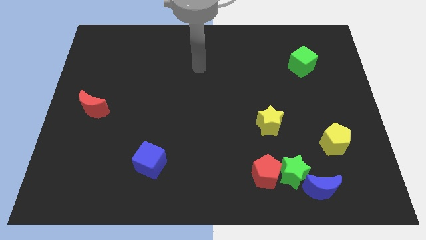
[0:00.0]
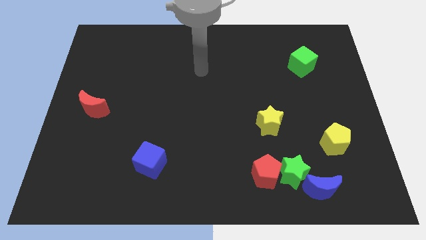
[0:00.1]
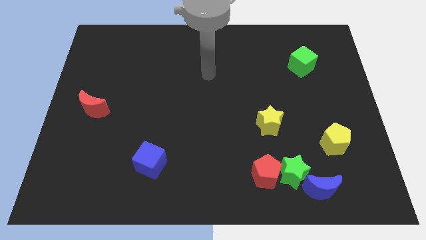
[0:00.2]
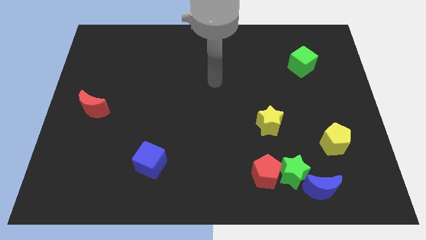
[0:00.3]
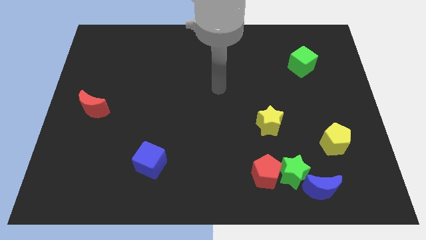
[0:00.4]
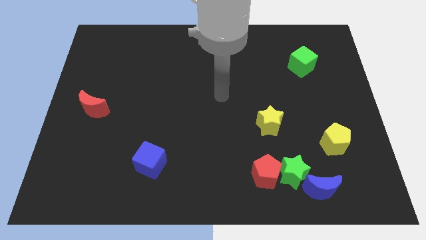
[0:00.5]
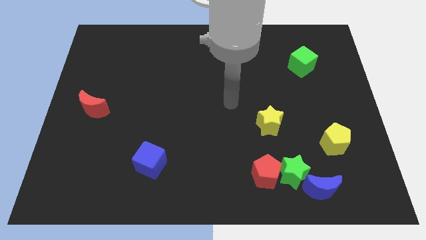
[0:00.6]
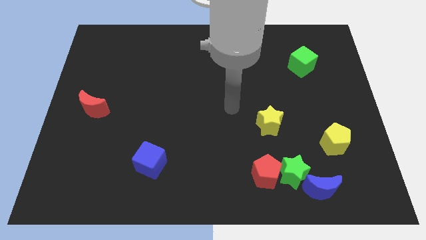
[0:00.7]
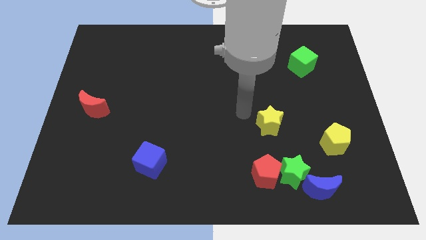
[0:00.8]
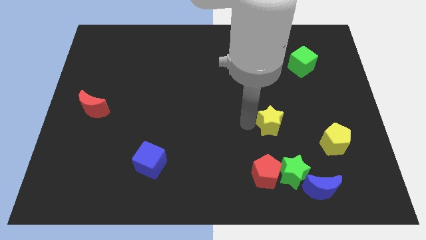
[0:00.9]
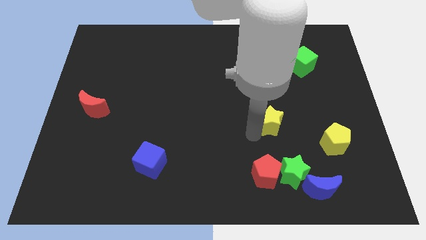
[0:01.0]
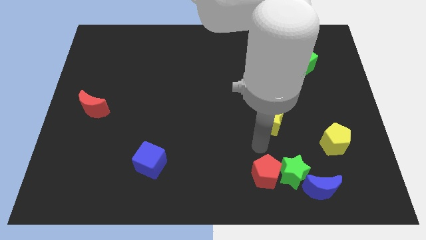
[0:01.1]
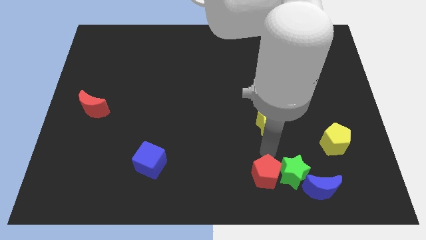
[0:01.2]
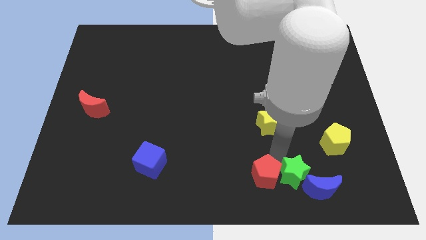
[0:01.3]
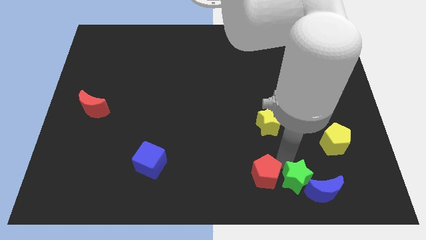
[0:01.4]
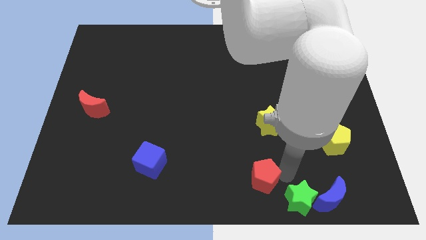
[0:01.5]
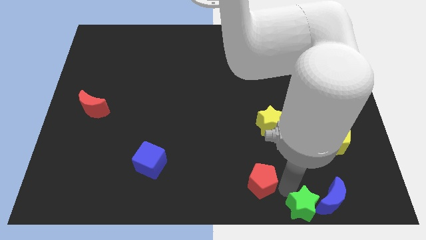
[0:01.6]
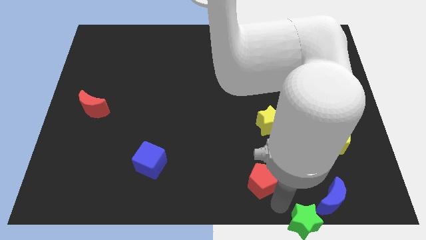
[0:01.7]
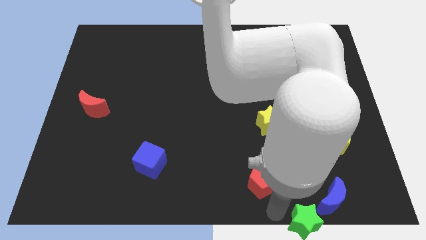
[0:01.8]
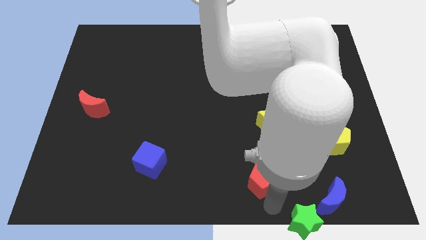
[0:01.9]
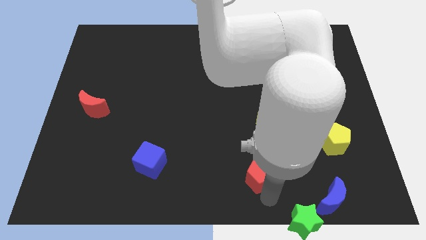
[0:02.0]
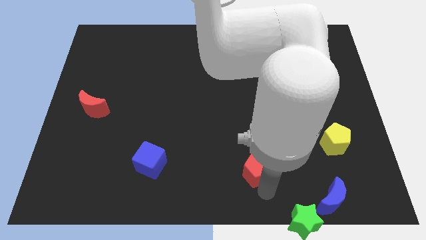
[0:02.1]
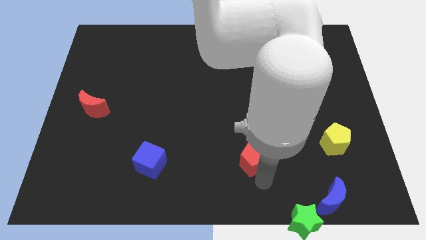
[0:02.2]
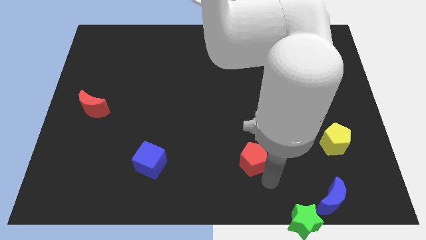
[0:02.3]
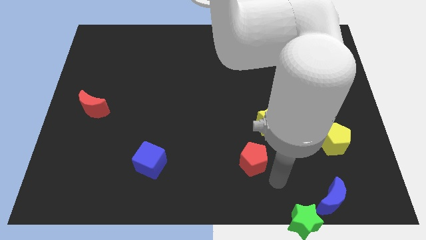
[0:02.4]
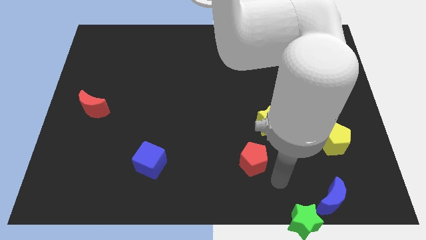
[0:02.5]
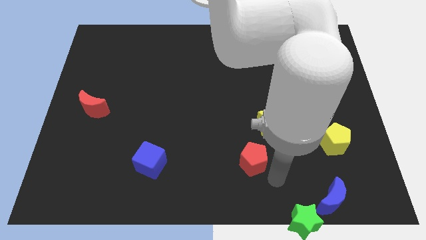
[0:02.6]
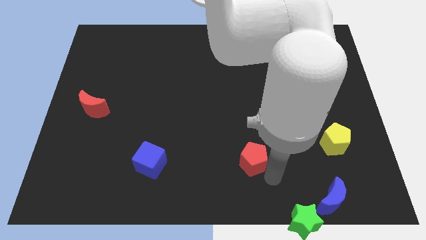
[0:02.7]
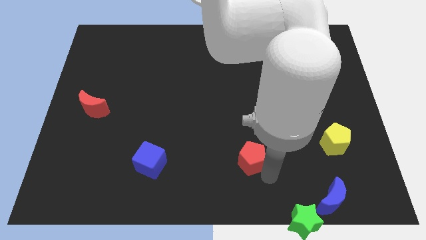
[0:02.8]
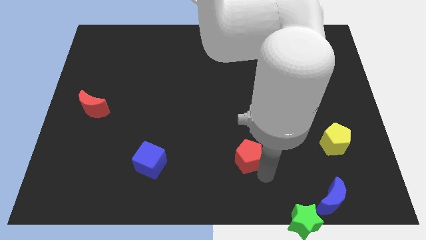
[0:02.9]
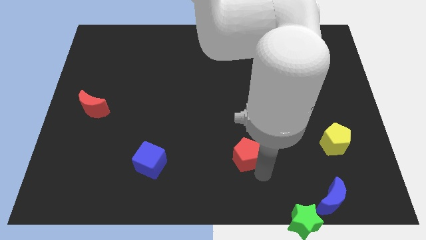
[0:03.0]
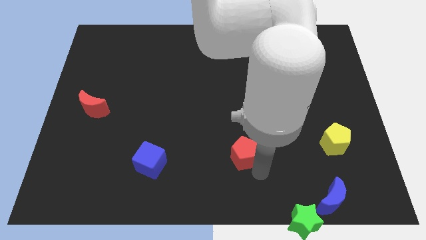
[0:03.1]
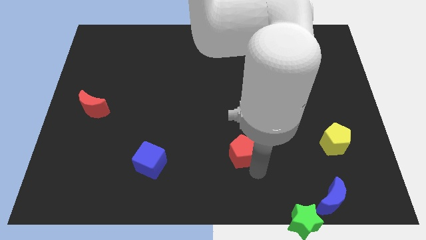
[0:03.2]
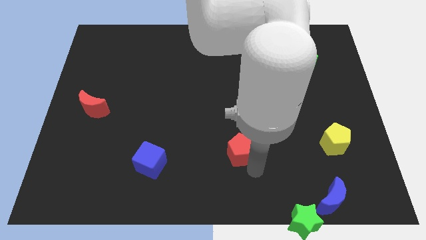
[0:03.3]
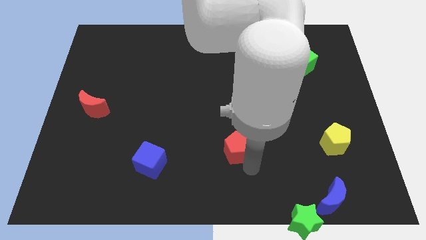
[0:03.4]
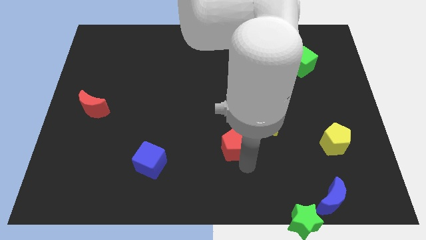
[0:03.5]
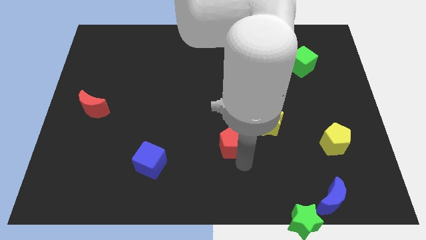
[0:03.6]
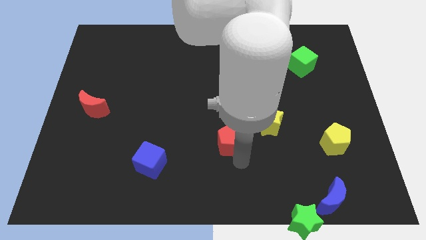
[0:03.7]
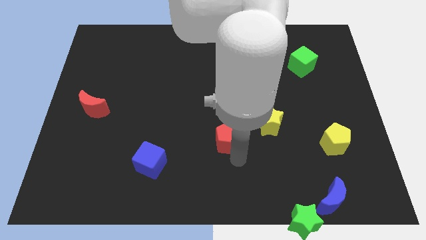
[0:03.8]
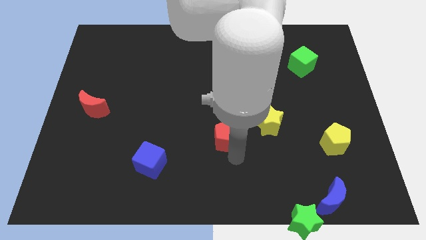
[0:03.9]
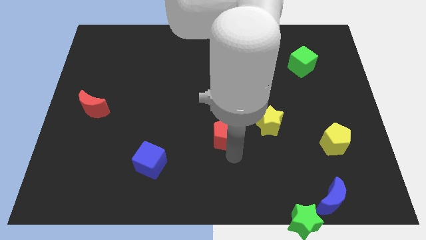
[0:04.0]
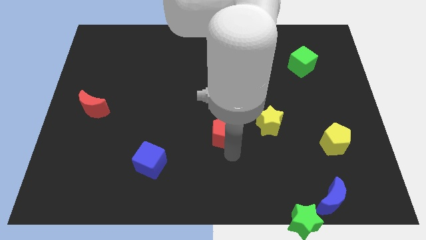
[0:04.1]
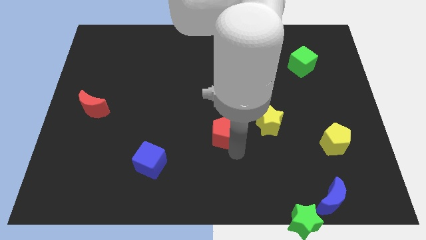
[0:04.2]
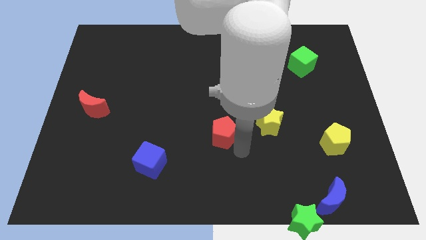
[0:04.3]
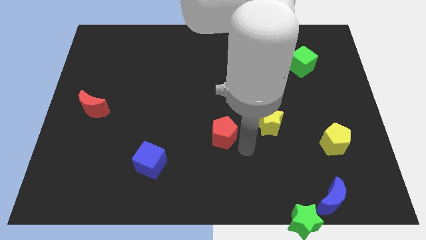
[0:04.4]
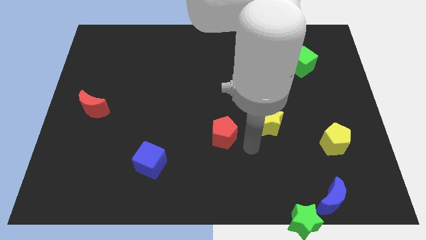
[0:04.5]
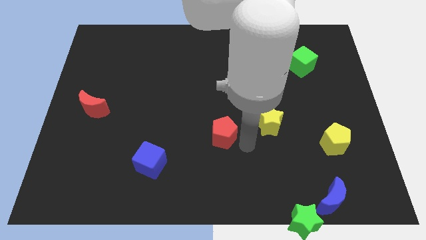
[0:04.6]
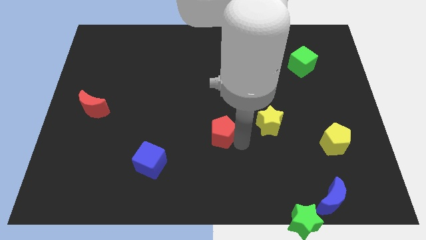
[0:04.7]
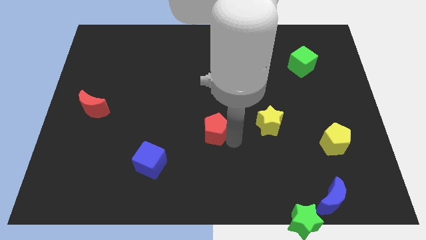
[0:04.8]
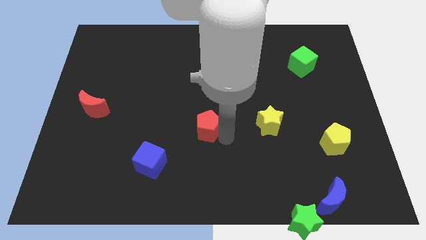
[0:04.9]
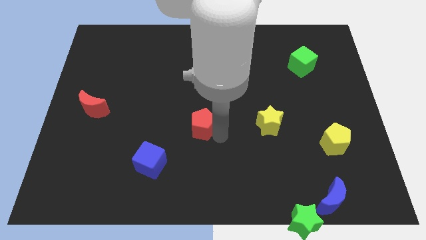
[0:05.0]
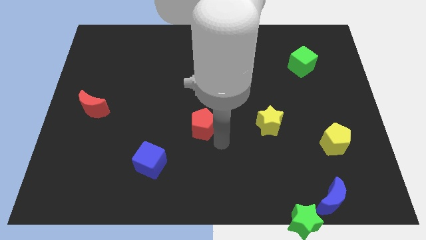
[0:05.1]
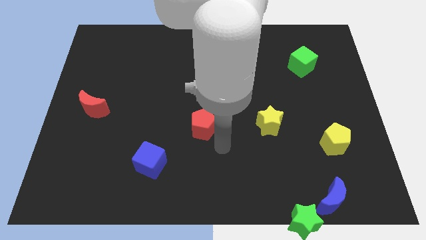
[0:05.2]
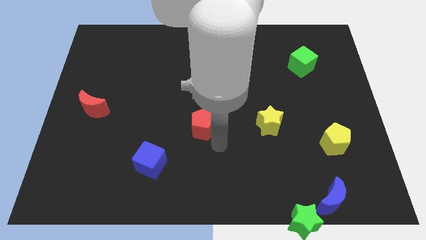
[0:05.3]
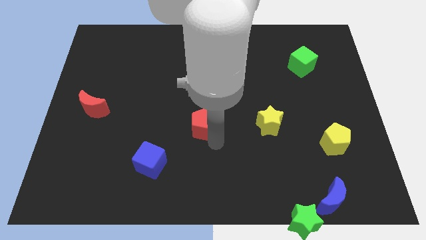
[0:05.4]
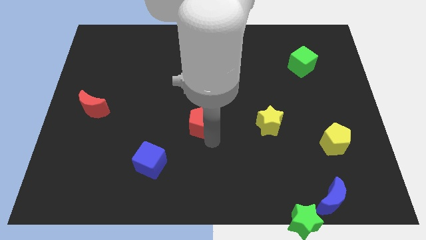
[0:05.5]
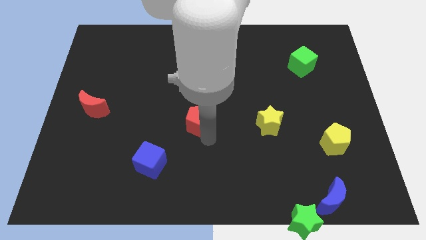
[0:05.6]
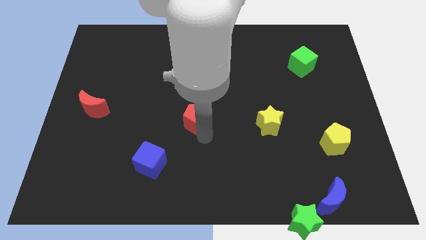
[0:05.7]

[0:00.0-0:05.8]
slide the red pentagon up and then left

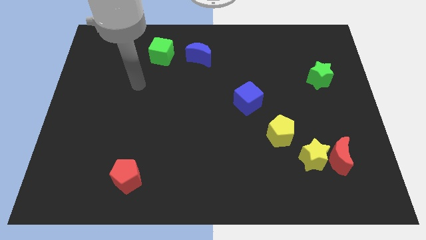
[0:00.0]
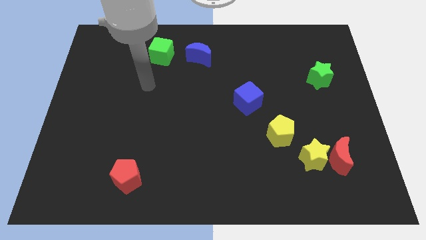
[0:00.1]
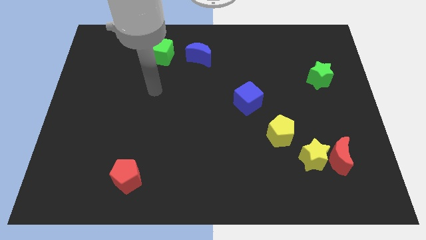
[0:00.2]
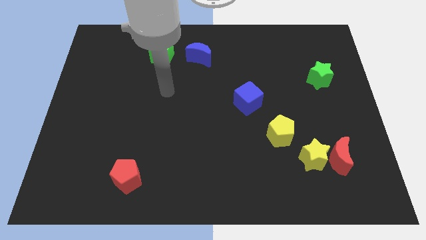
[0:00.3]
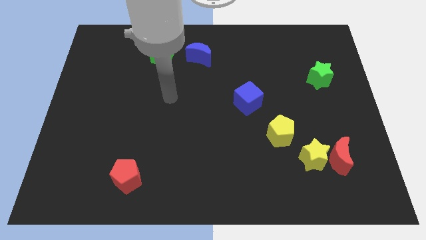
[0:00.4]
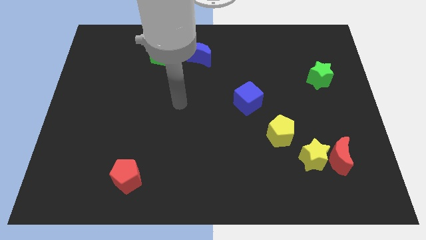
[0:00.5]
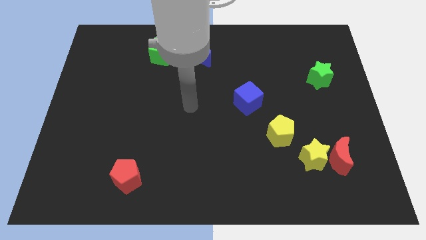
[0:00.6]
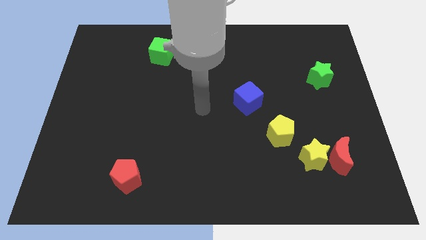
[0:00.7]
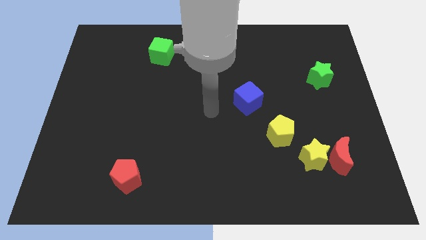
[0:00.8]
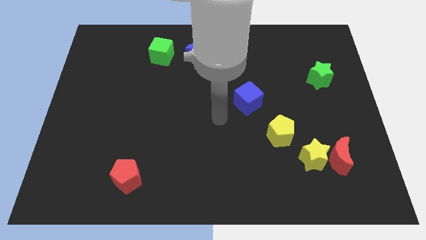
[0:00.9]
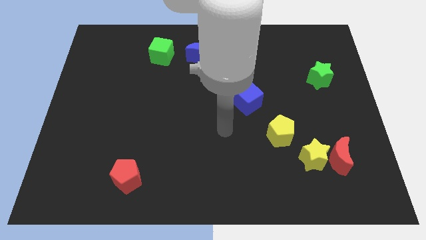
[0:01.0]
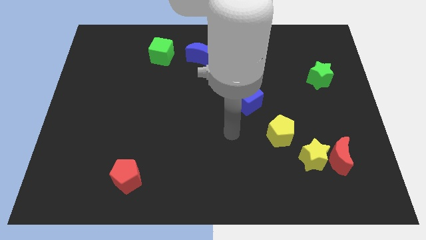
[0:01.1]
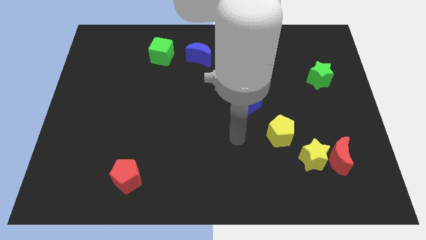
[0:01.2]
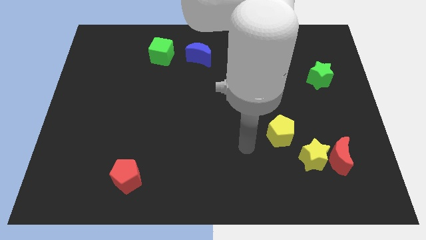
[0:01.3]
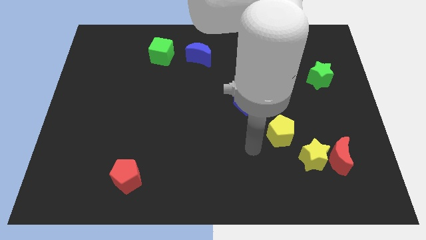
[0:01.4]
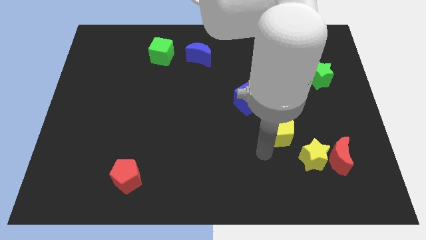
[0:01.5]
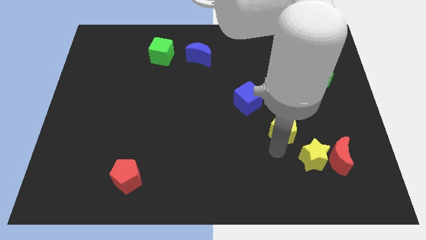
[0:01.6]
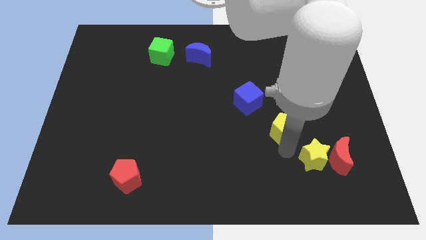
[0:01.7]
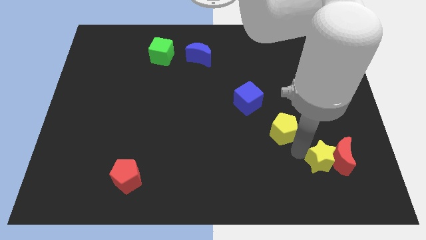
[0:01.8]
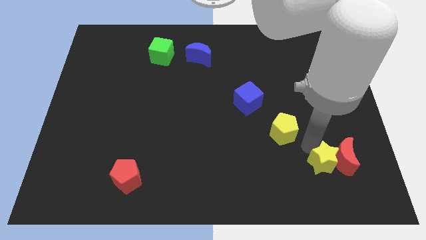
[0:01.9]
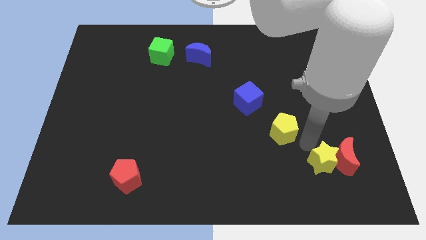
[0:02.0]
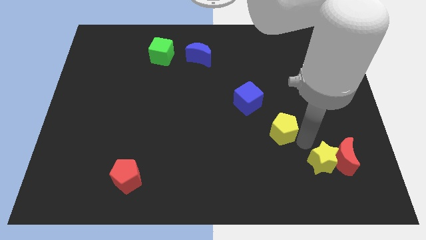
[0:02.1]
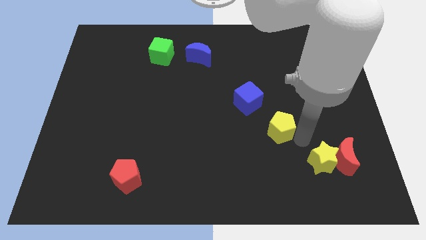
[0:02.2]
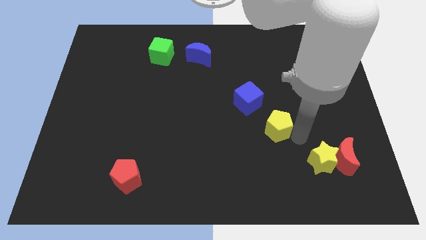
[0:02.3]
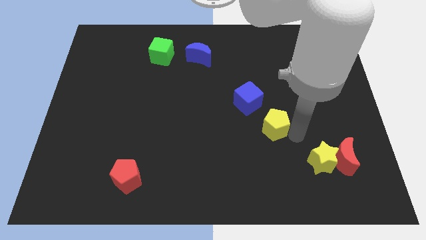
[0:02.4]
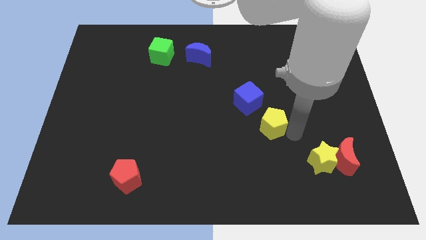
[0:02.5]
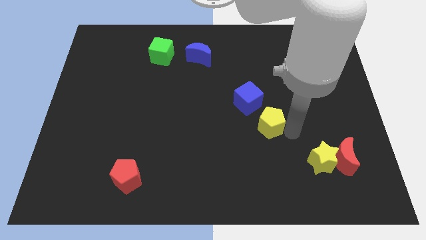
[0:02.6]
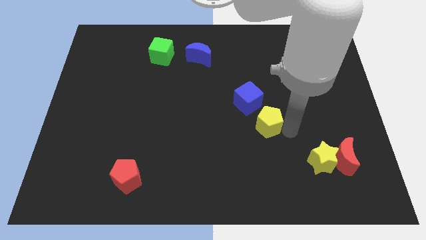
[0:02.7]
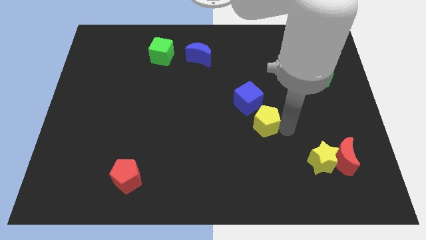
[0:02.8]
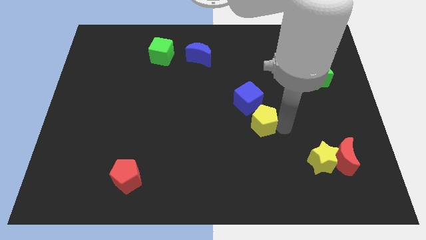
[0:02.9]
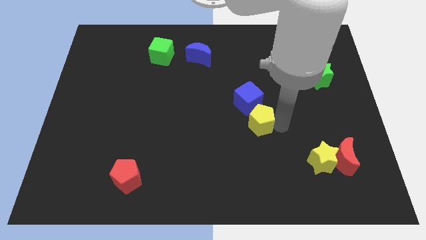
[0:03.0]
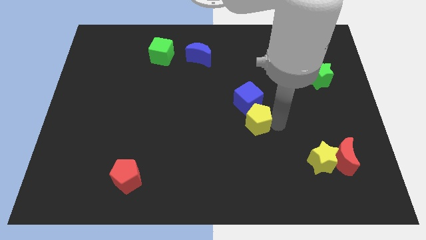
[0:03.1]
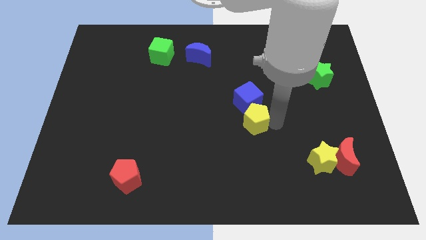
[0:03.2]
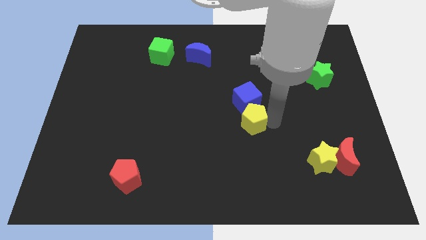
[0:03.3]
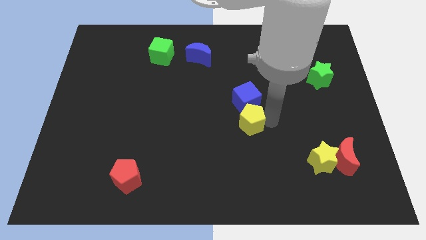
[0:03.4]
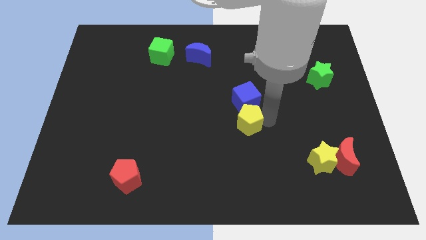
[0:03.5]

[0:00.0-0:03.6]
move the yellow pentagon a little diagonally up and left
